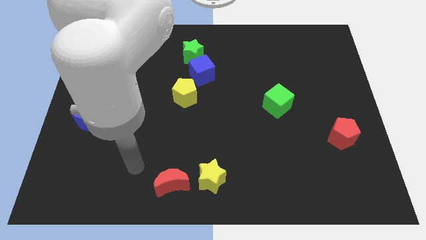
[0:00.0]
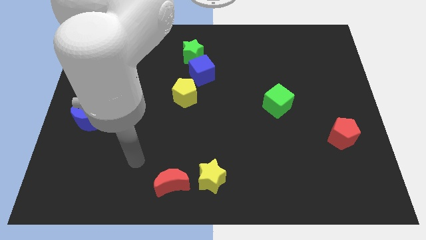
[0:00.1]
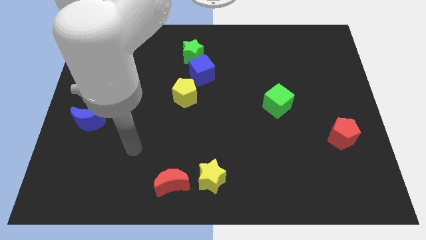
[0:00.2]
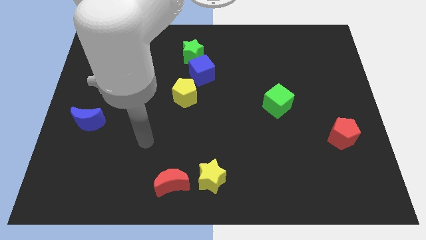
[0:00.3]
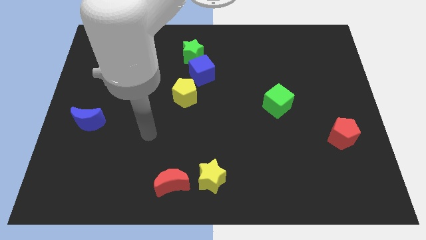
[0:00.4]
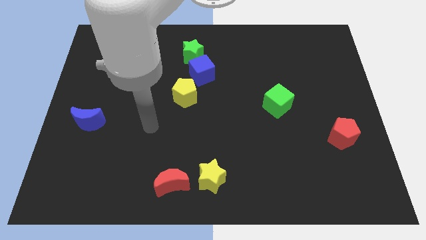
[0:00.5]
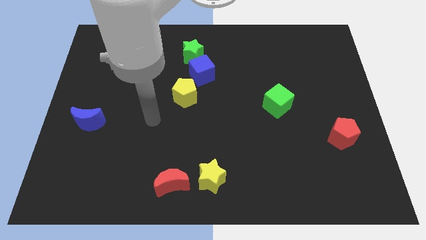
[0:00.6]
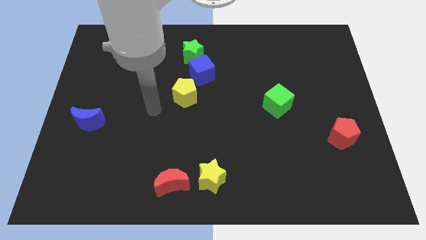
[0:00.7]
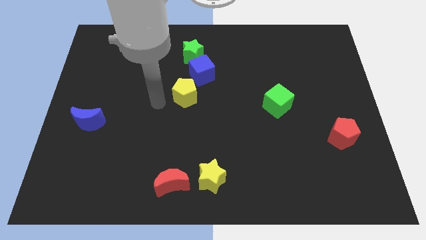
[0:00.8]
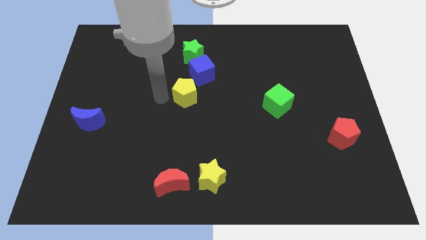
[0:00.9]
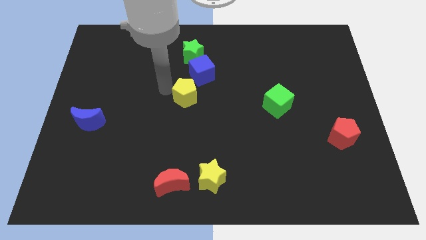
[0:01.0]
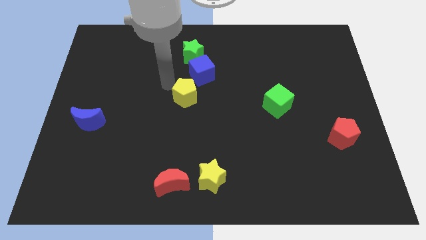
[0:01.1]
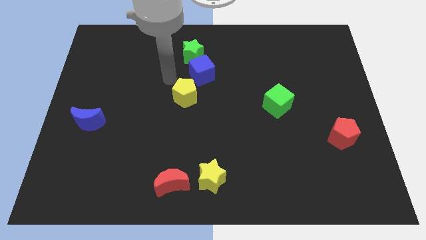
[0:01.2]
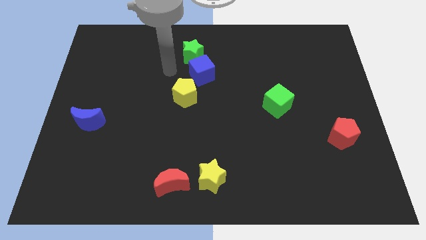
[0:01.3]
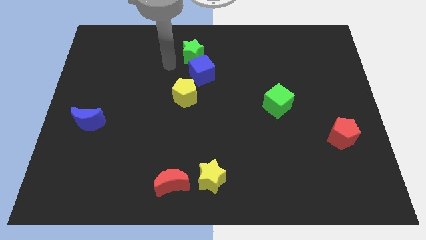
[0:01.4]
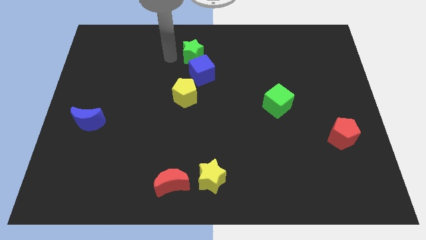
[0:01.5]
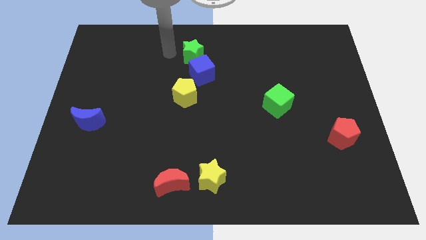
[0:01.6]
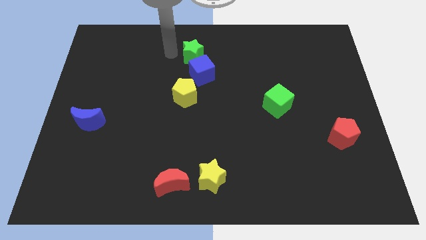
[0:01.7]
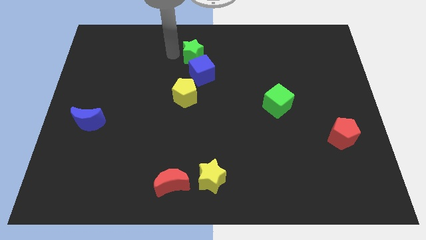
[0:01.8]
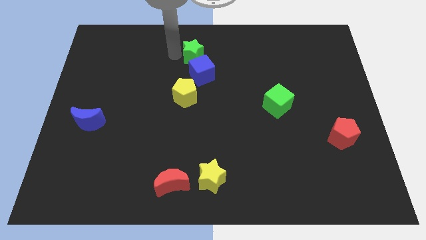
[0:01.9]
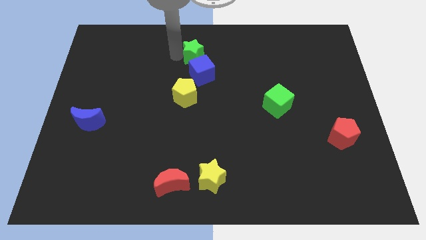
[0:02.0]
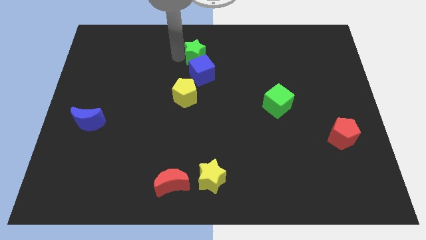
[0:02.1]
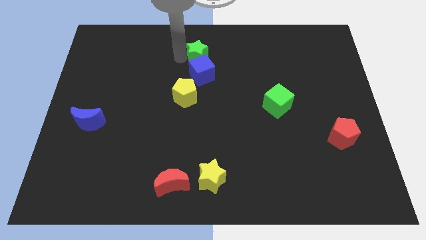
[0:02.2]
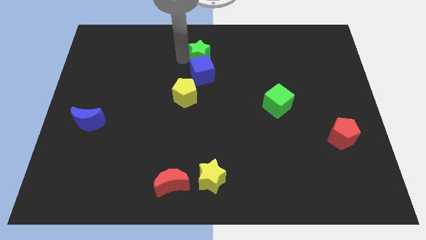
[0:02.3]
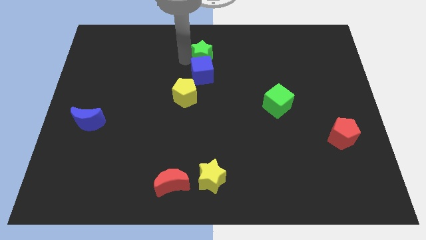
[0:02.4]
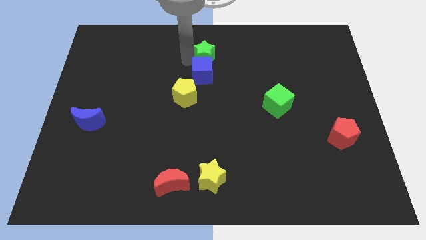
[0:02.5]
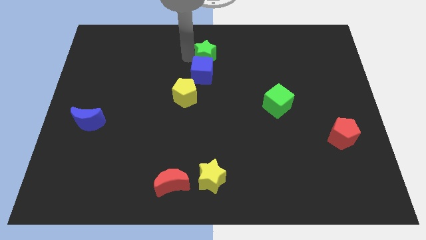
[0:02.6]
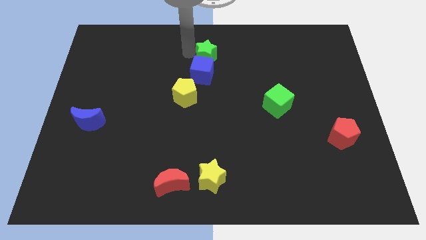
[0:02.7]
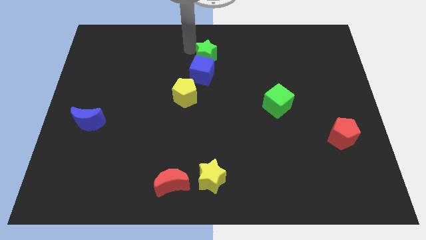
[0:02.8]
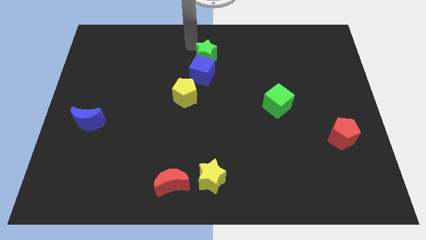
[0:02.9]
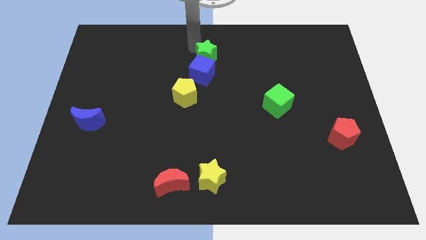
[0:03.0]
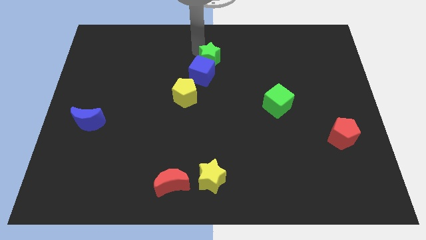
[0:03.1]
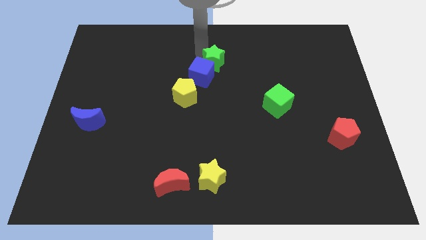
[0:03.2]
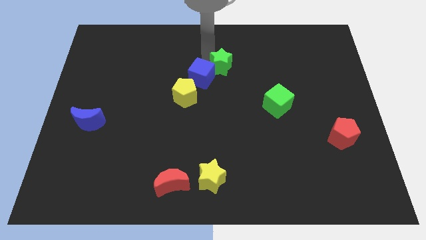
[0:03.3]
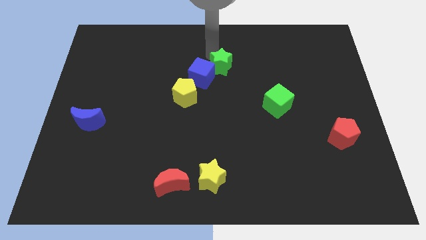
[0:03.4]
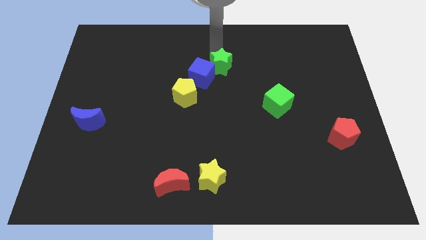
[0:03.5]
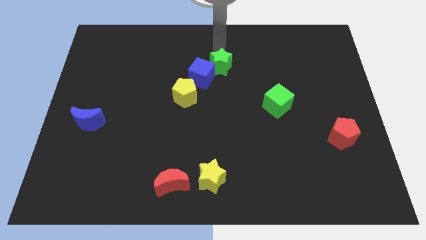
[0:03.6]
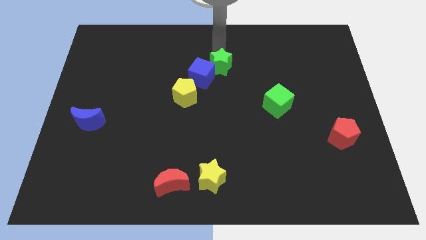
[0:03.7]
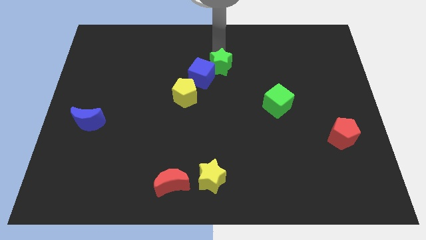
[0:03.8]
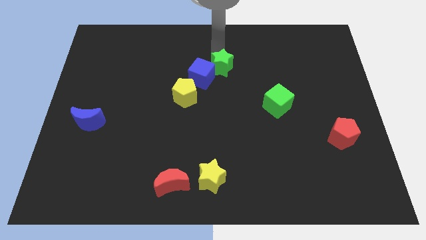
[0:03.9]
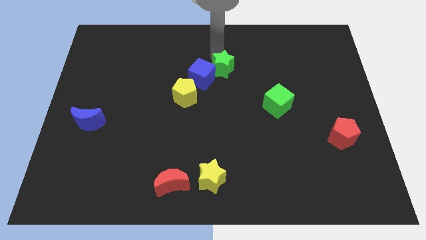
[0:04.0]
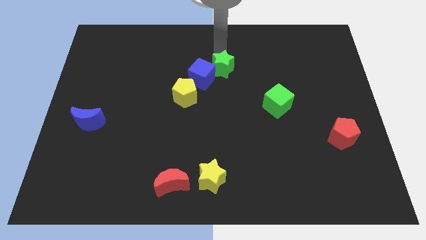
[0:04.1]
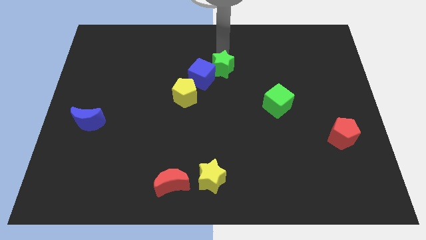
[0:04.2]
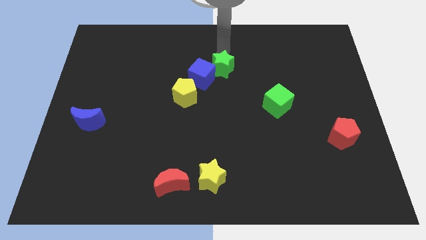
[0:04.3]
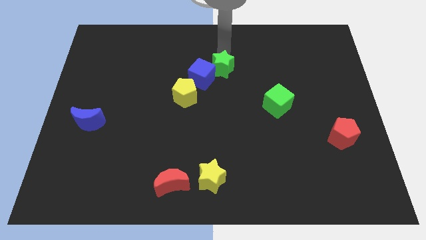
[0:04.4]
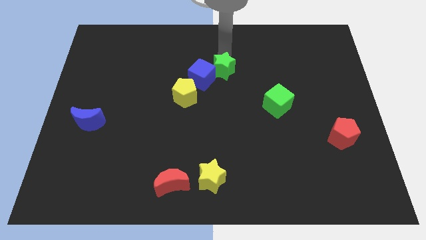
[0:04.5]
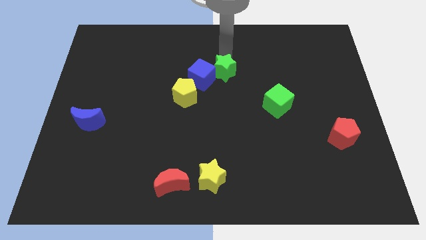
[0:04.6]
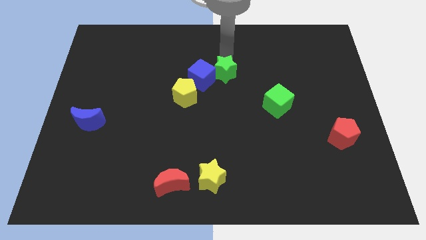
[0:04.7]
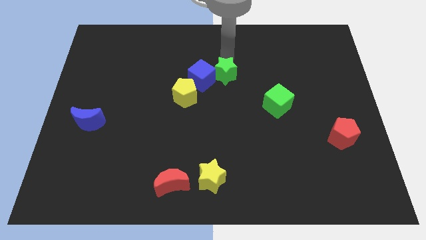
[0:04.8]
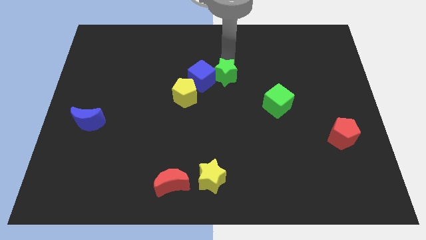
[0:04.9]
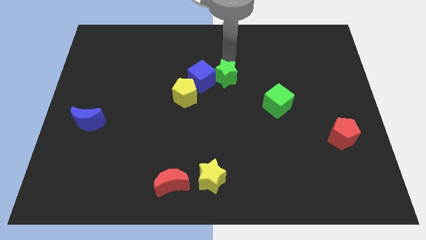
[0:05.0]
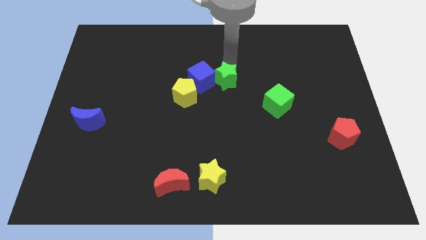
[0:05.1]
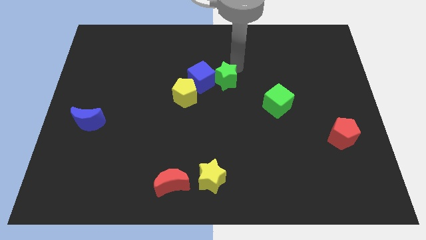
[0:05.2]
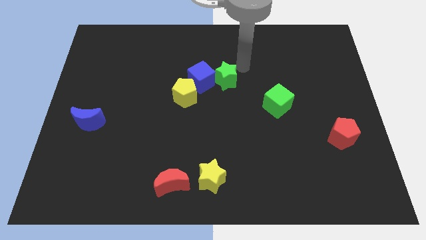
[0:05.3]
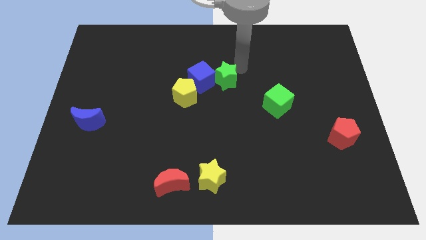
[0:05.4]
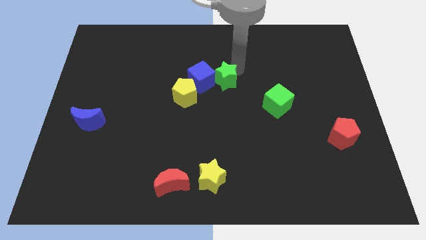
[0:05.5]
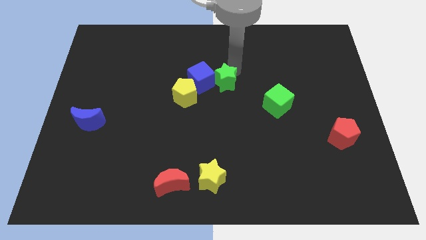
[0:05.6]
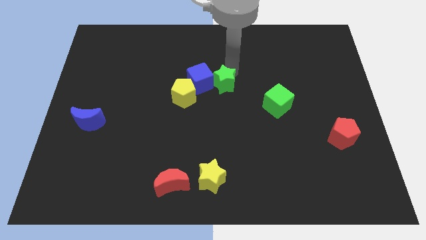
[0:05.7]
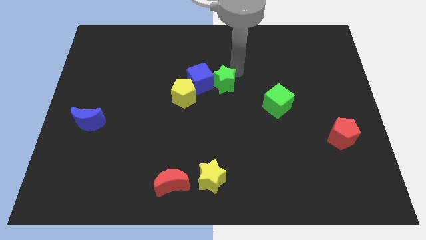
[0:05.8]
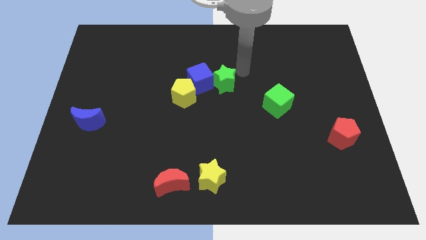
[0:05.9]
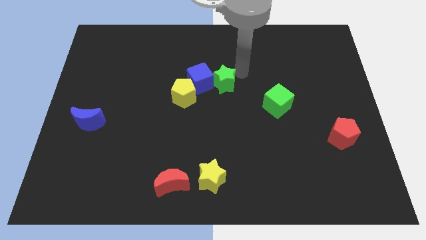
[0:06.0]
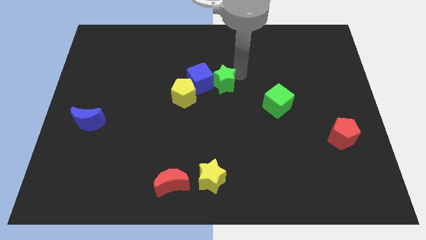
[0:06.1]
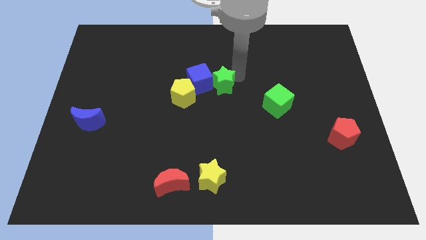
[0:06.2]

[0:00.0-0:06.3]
slide the green star downwards a bit

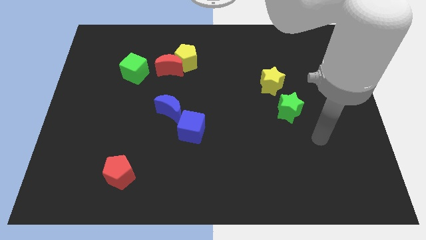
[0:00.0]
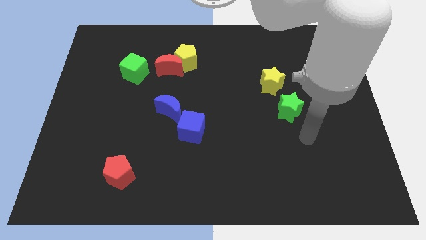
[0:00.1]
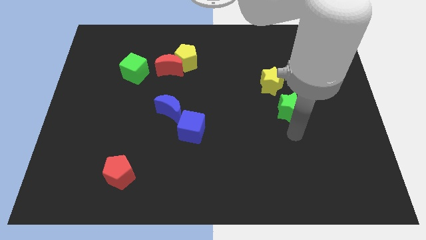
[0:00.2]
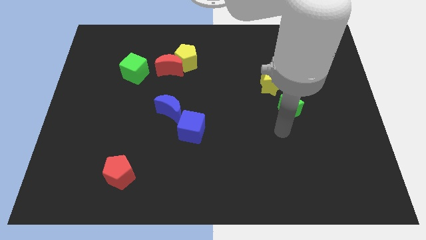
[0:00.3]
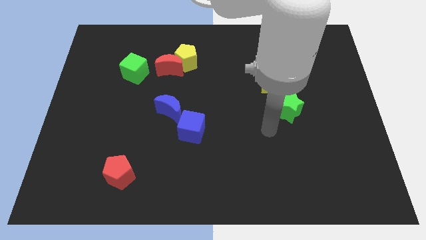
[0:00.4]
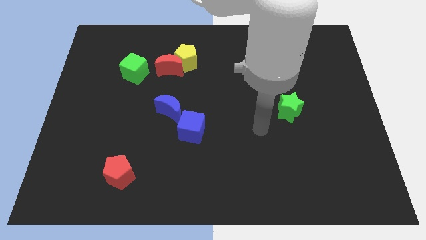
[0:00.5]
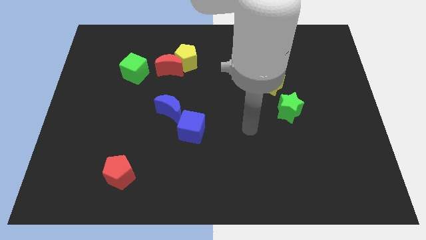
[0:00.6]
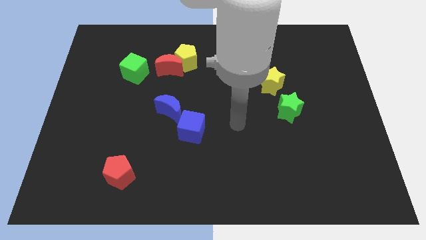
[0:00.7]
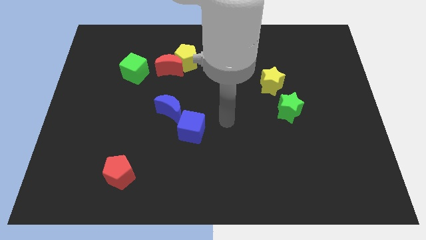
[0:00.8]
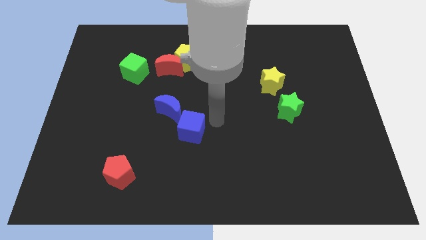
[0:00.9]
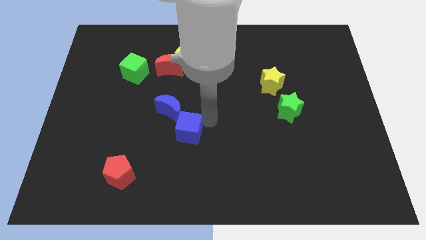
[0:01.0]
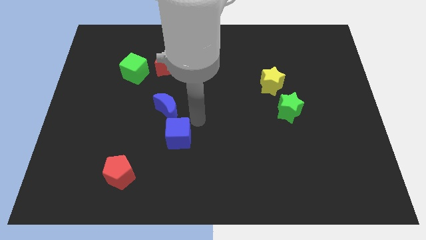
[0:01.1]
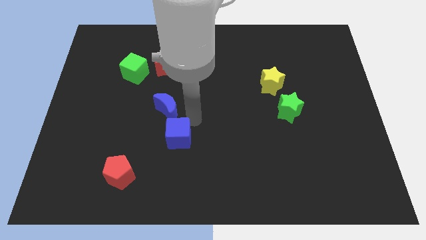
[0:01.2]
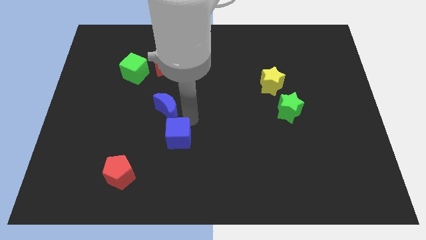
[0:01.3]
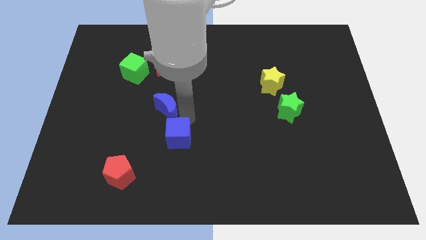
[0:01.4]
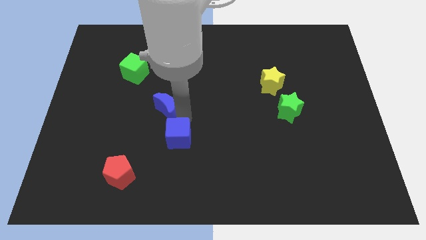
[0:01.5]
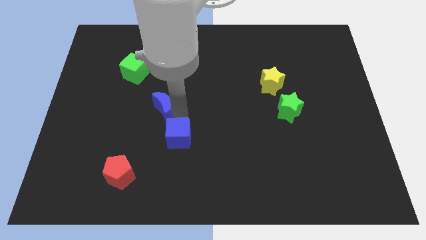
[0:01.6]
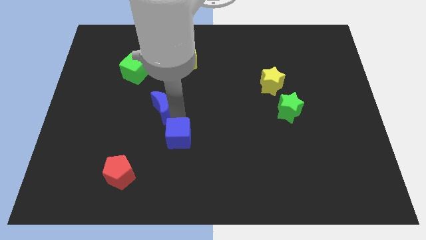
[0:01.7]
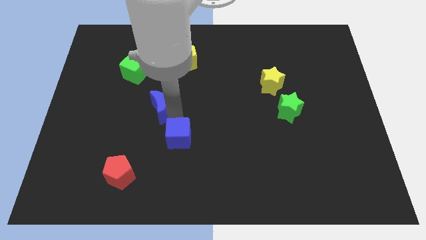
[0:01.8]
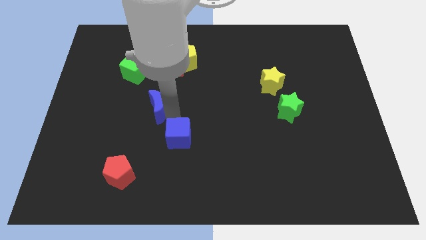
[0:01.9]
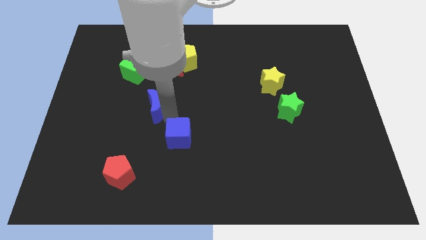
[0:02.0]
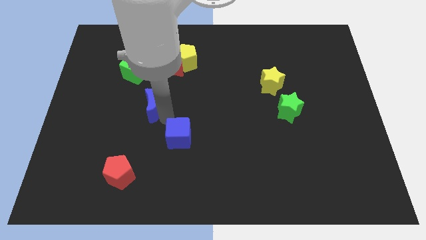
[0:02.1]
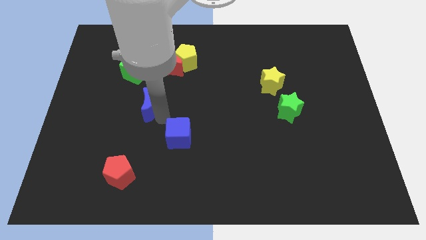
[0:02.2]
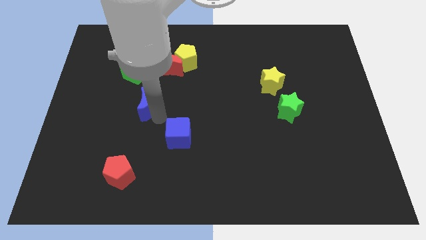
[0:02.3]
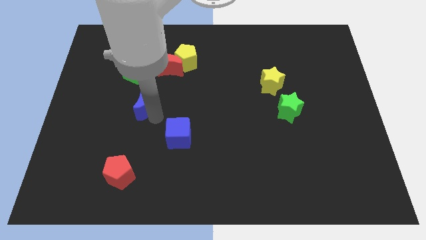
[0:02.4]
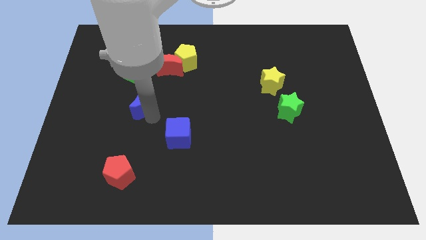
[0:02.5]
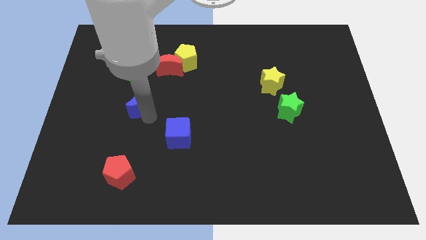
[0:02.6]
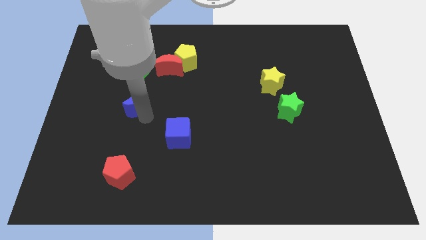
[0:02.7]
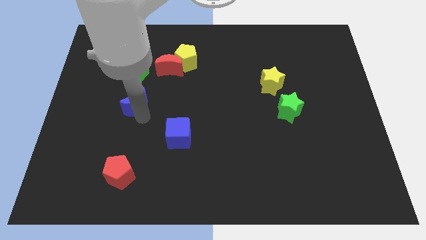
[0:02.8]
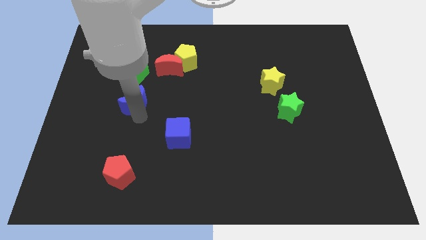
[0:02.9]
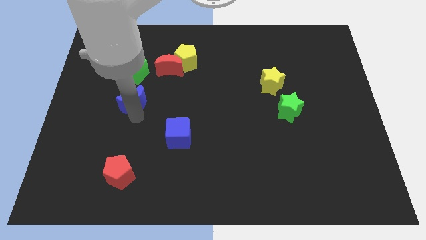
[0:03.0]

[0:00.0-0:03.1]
slide the blue moon a bit up and left diagonally
